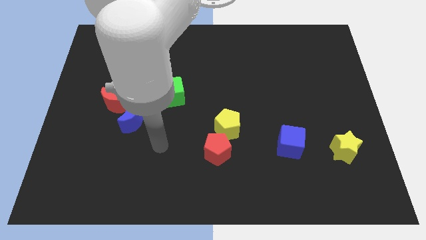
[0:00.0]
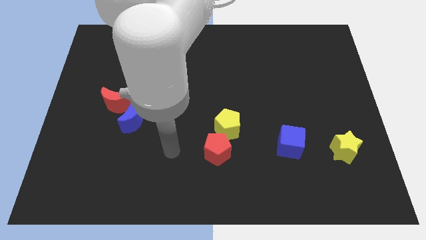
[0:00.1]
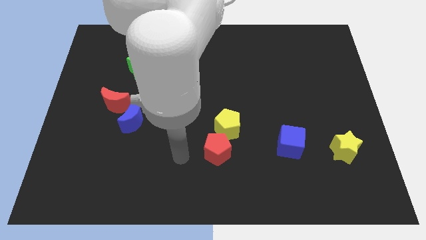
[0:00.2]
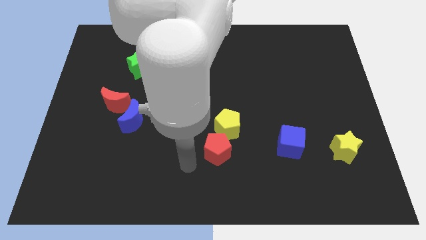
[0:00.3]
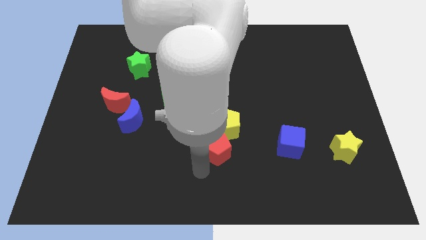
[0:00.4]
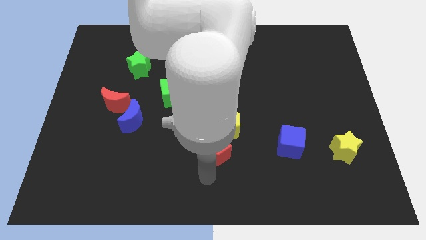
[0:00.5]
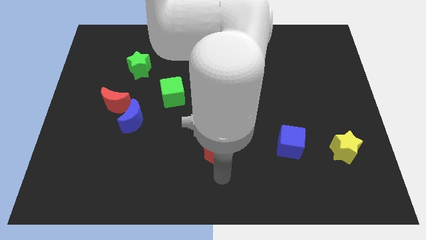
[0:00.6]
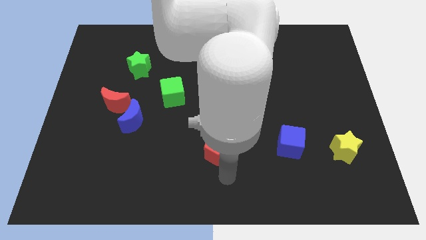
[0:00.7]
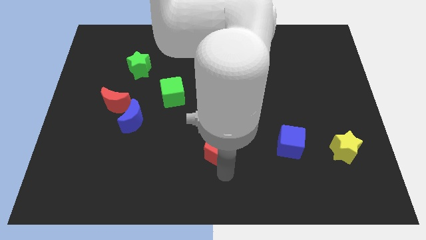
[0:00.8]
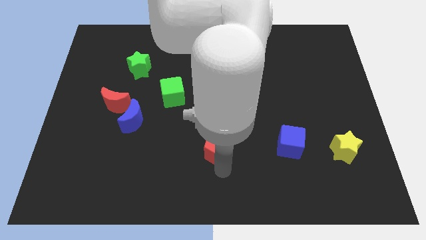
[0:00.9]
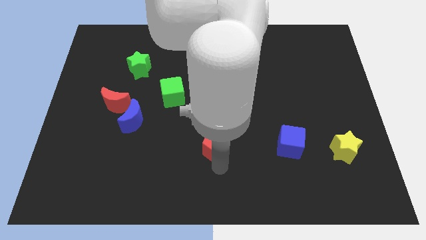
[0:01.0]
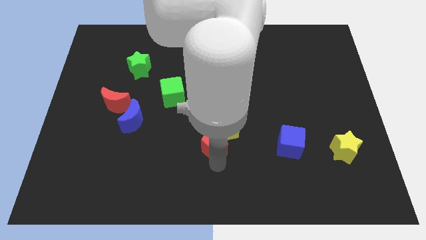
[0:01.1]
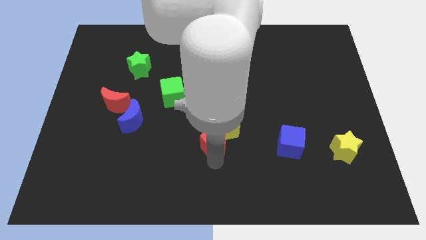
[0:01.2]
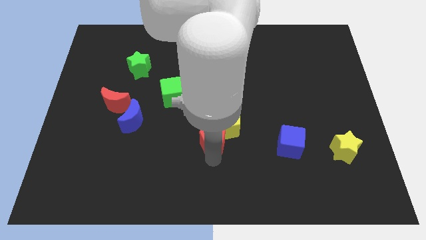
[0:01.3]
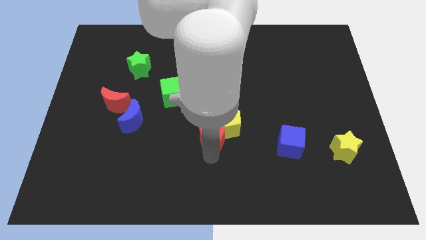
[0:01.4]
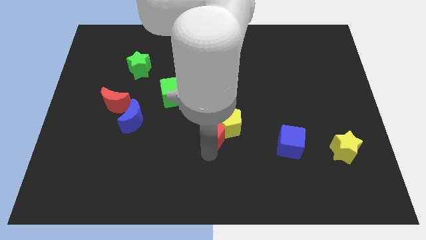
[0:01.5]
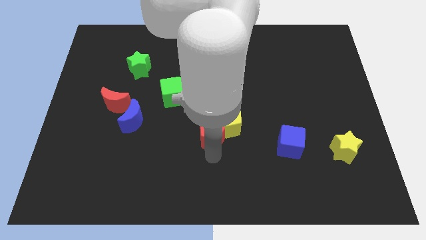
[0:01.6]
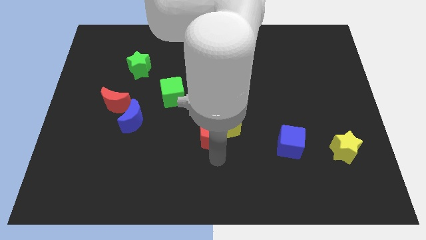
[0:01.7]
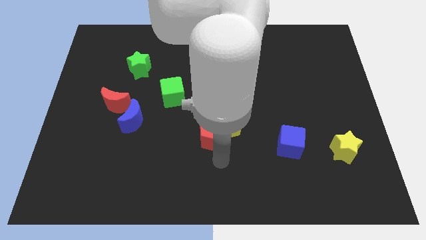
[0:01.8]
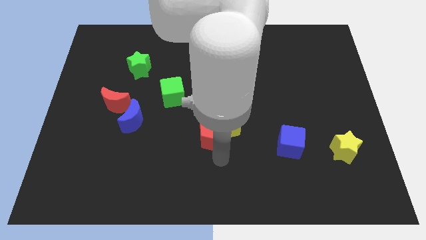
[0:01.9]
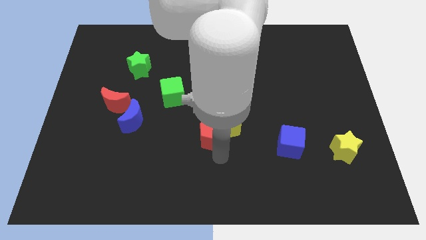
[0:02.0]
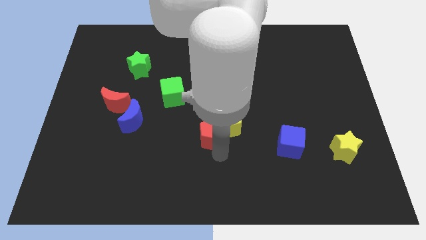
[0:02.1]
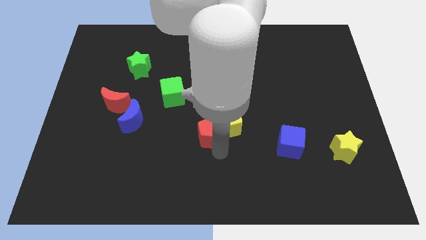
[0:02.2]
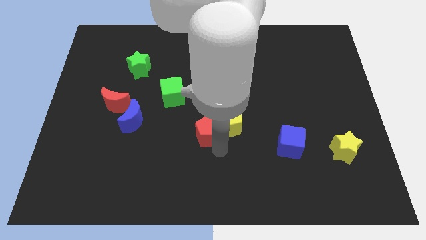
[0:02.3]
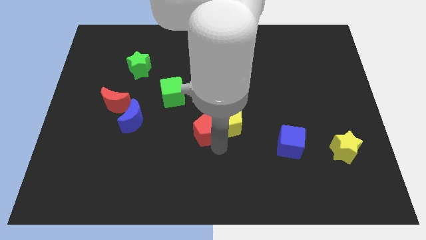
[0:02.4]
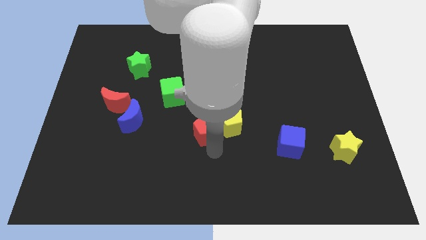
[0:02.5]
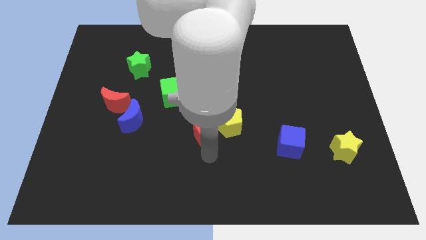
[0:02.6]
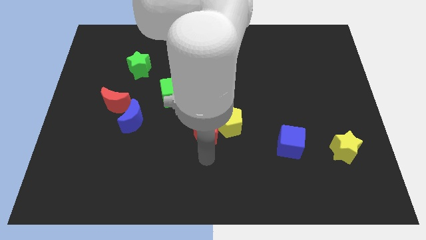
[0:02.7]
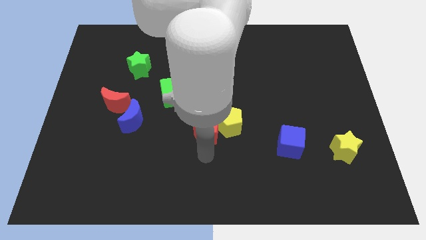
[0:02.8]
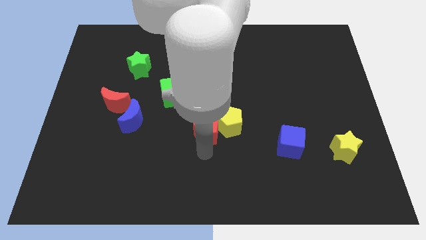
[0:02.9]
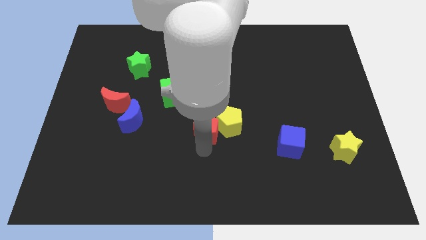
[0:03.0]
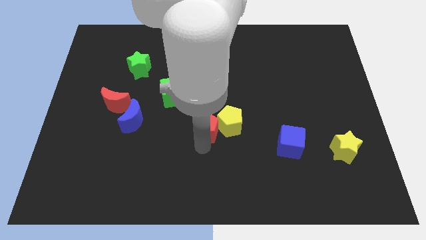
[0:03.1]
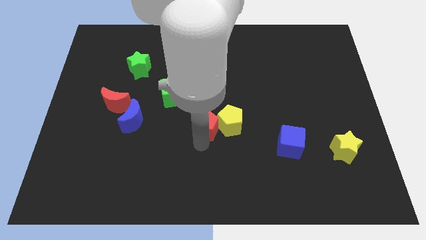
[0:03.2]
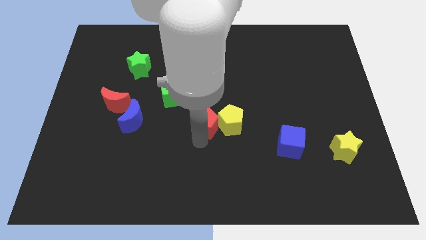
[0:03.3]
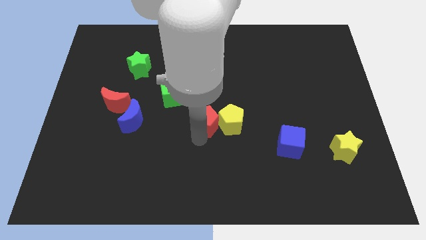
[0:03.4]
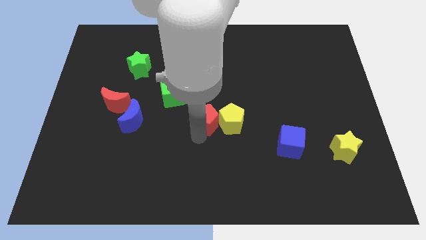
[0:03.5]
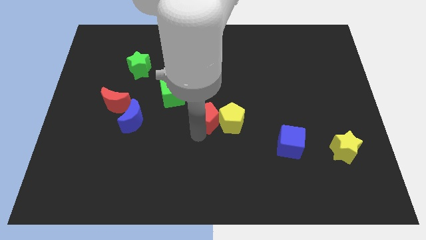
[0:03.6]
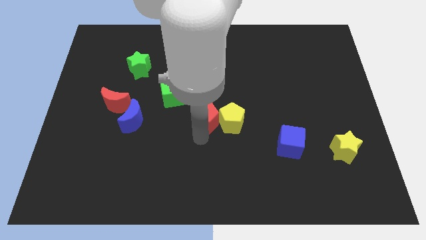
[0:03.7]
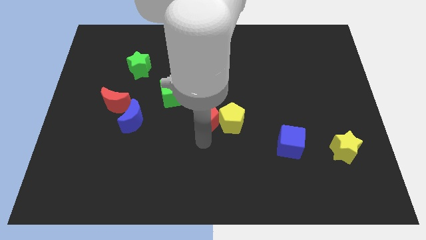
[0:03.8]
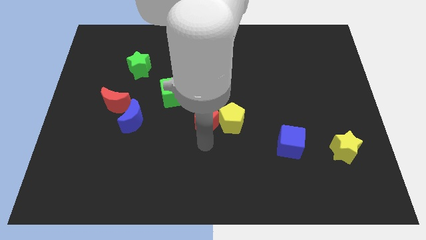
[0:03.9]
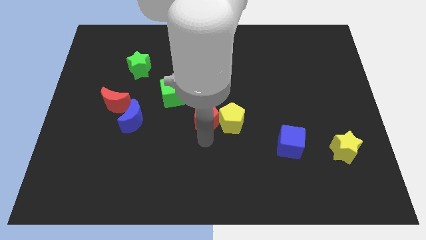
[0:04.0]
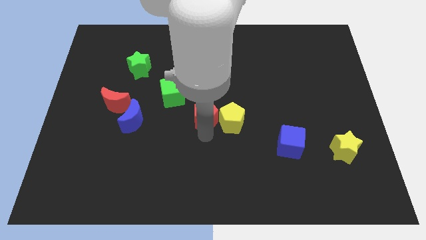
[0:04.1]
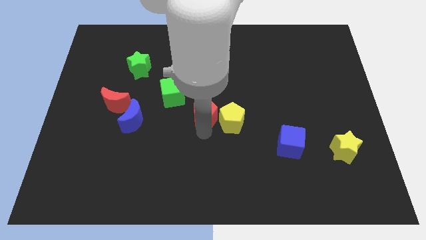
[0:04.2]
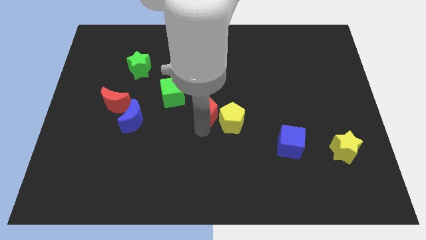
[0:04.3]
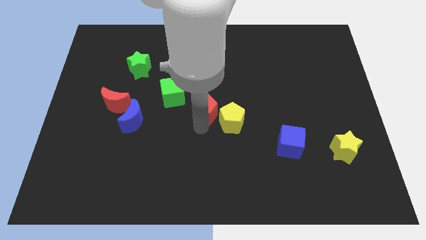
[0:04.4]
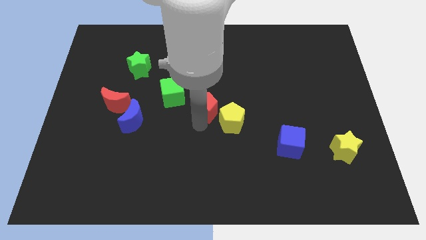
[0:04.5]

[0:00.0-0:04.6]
slide the red pentagon right of the green cube

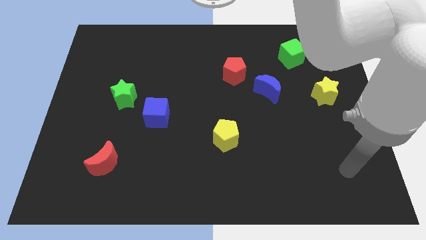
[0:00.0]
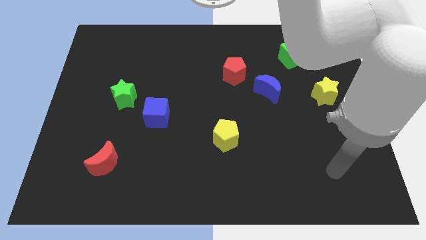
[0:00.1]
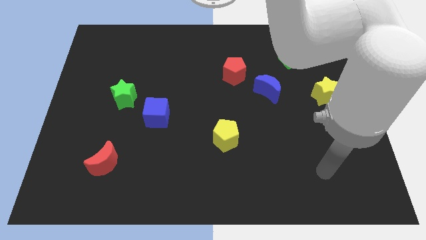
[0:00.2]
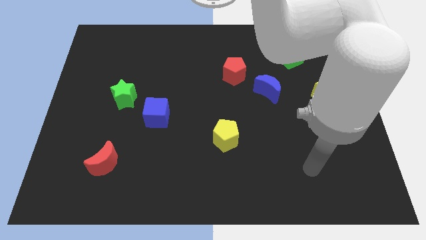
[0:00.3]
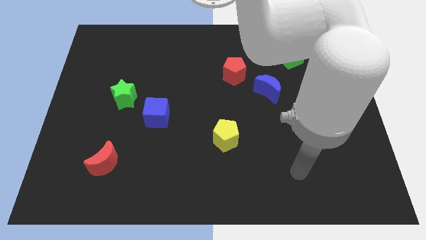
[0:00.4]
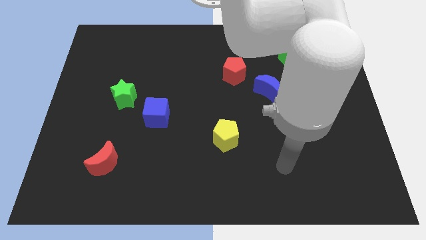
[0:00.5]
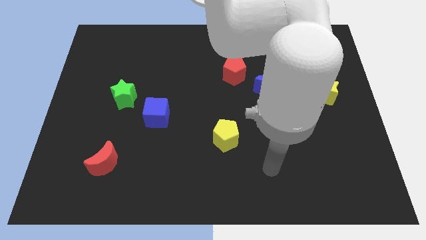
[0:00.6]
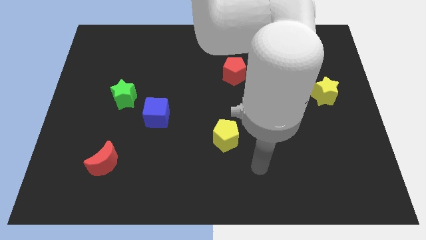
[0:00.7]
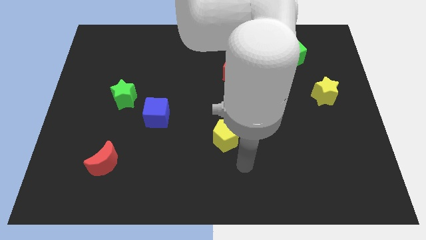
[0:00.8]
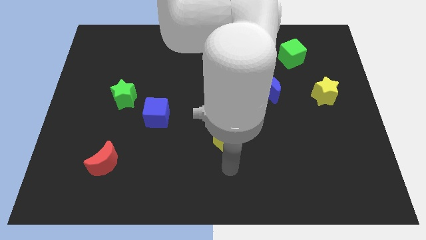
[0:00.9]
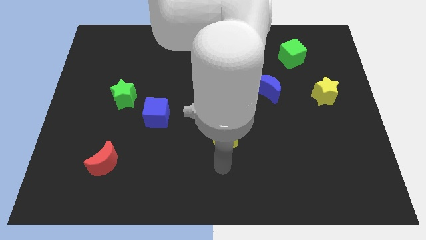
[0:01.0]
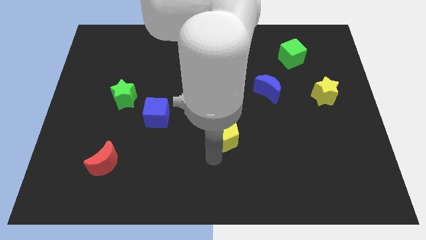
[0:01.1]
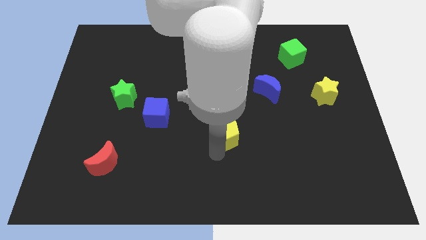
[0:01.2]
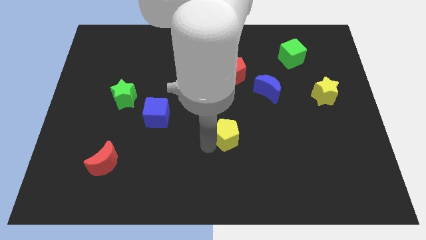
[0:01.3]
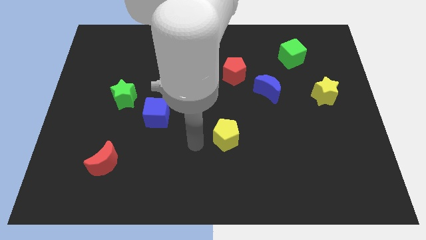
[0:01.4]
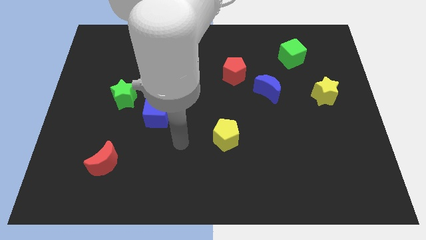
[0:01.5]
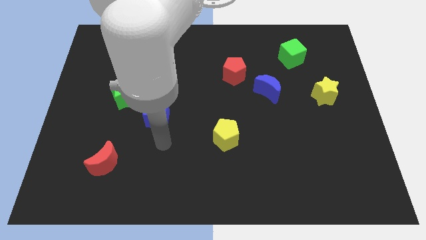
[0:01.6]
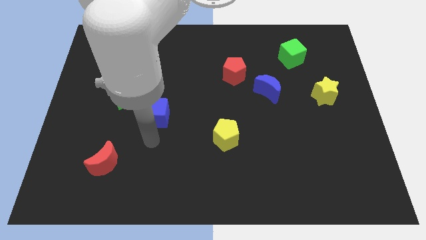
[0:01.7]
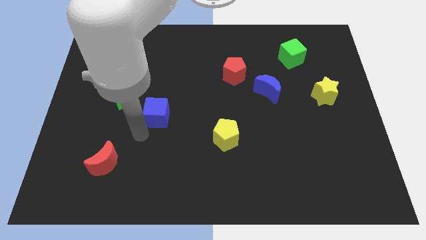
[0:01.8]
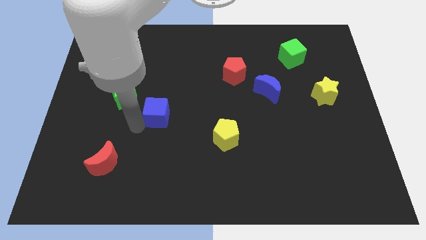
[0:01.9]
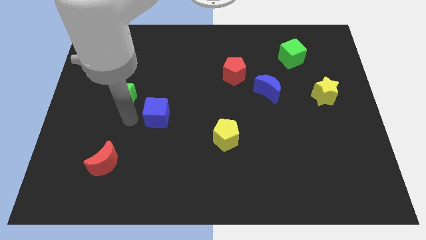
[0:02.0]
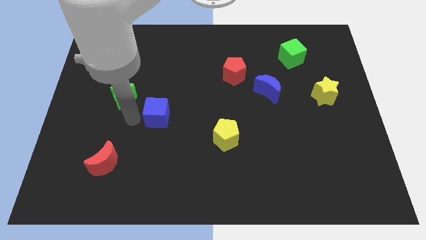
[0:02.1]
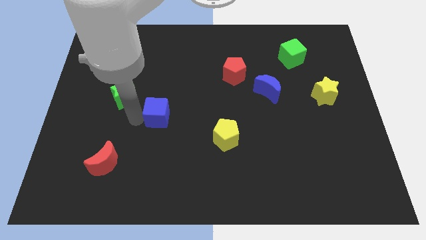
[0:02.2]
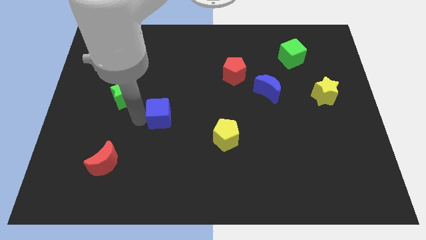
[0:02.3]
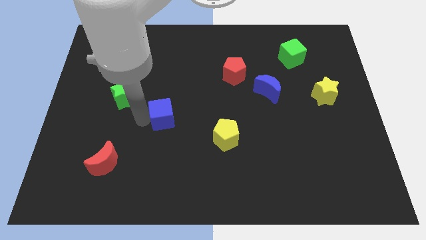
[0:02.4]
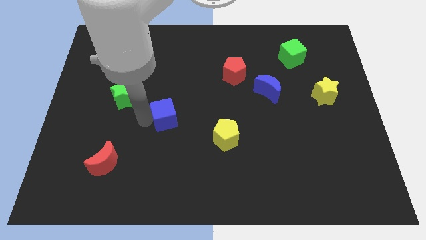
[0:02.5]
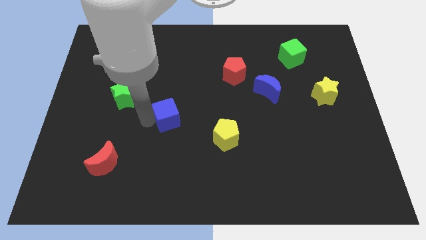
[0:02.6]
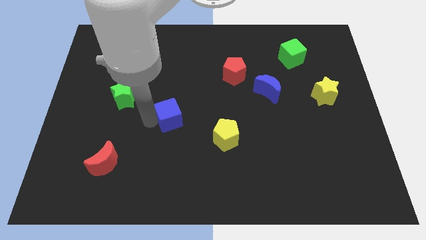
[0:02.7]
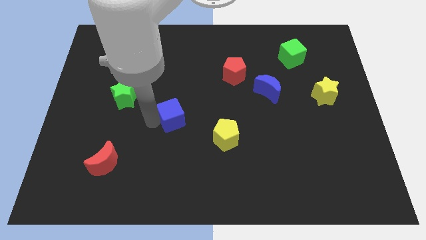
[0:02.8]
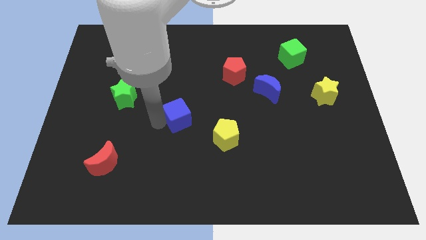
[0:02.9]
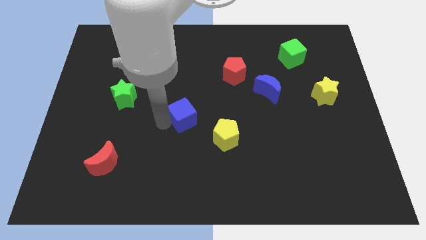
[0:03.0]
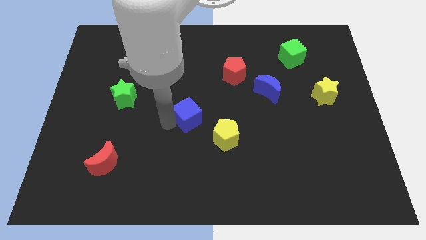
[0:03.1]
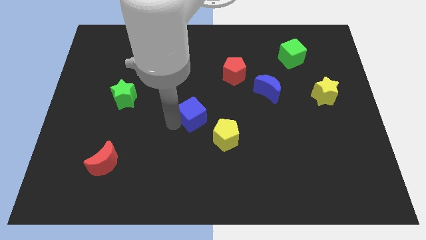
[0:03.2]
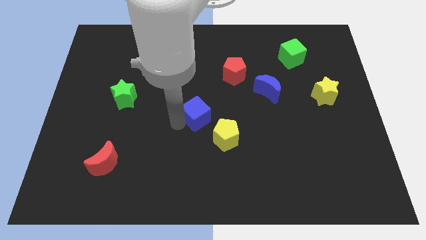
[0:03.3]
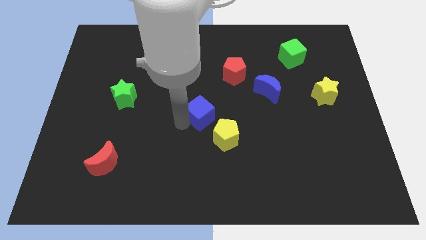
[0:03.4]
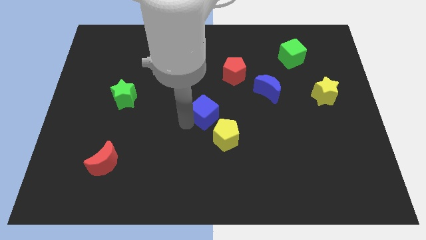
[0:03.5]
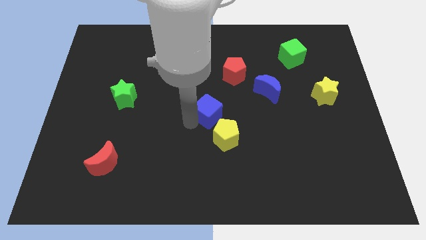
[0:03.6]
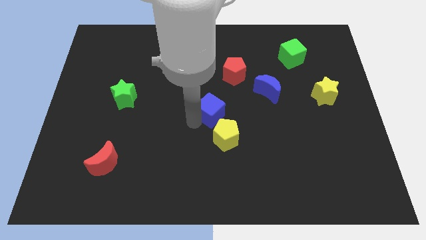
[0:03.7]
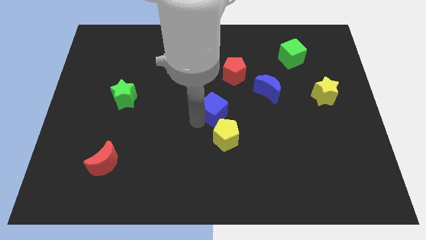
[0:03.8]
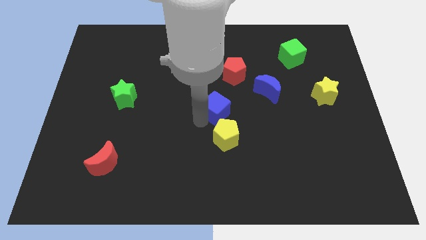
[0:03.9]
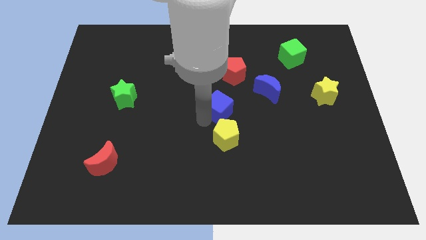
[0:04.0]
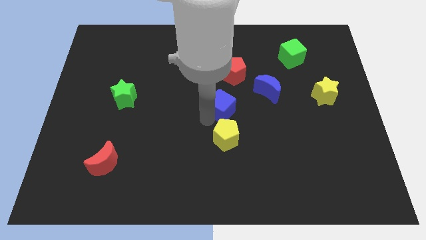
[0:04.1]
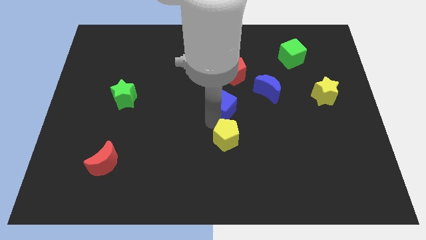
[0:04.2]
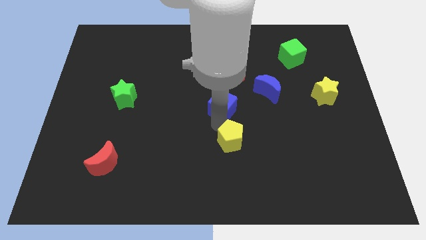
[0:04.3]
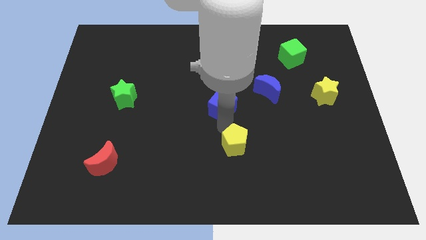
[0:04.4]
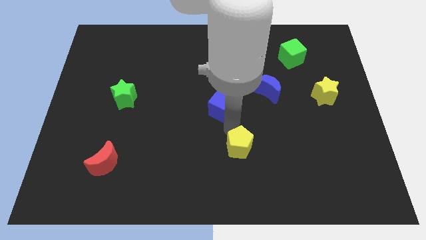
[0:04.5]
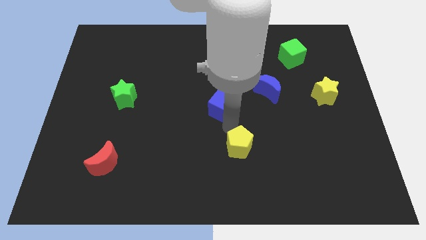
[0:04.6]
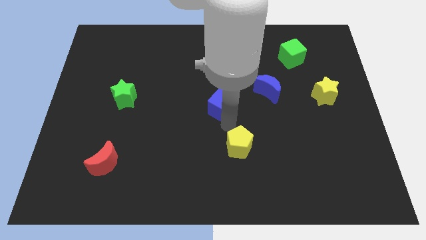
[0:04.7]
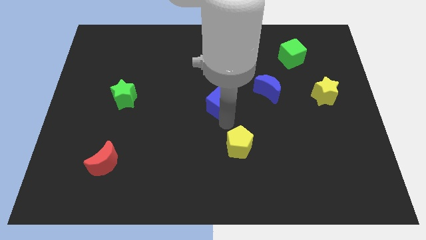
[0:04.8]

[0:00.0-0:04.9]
put the blue cube to the bottom left side of the red pentagon
